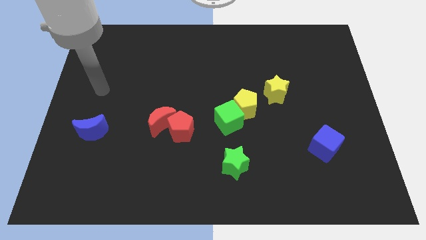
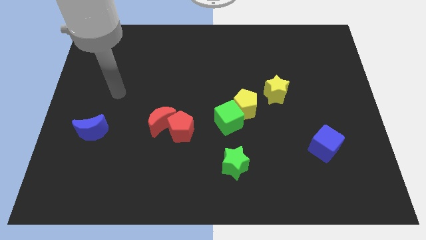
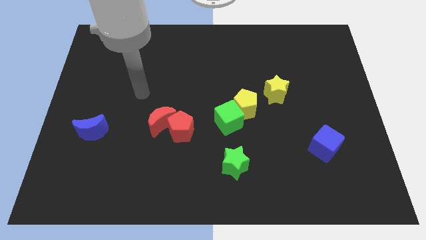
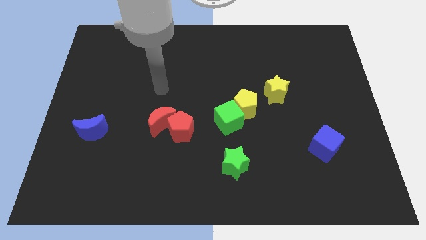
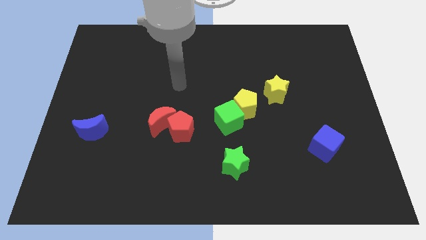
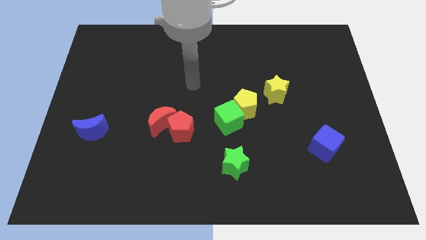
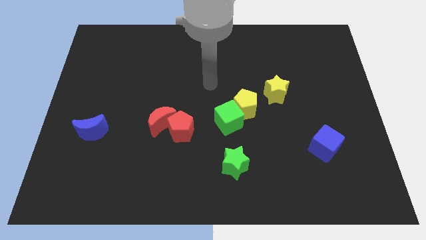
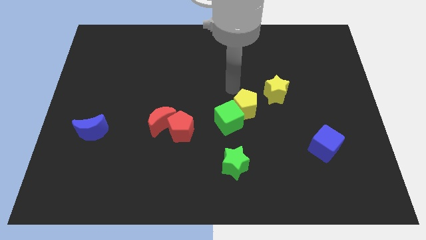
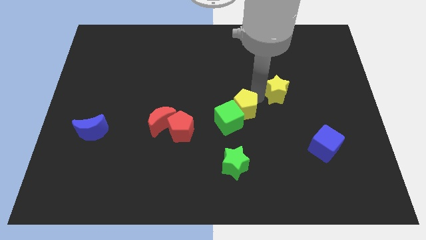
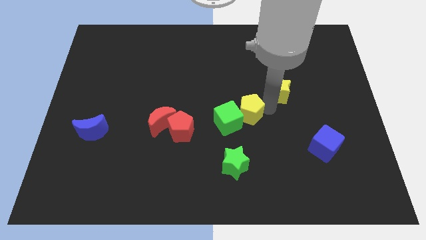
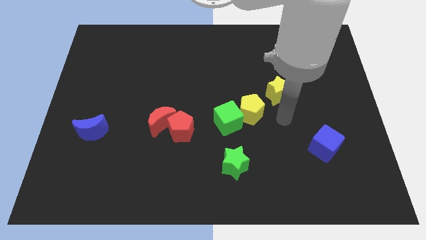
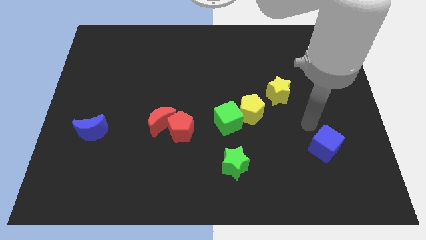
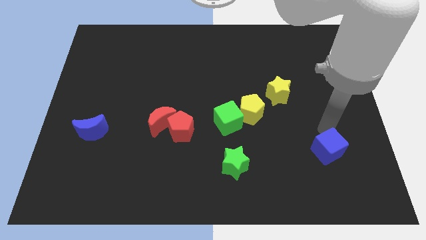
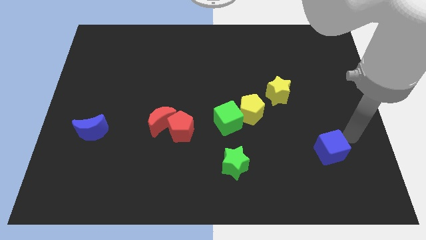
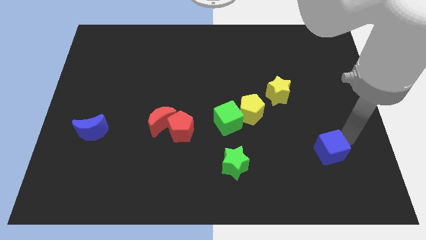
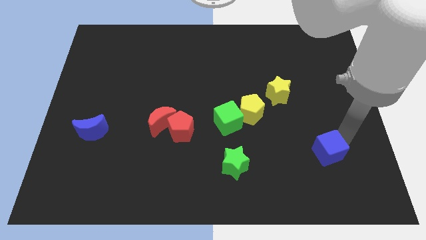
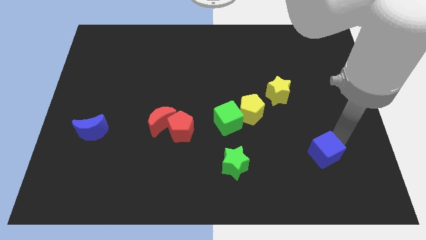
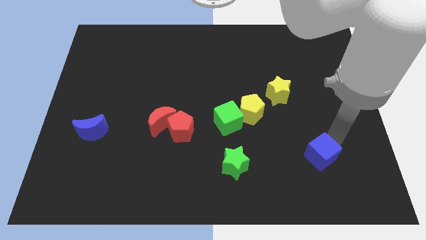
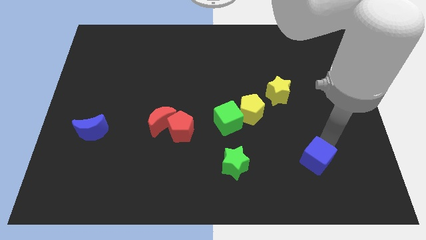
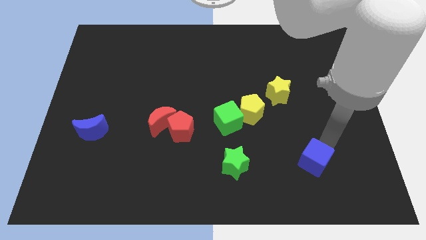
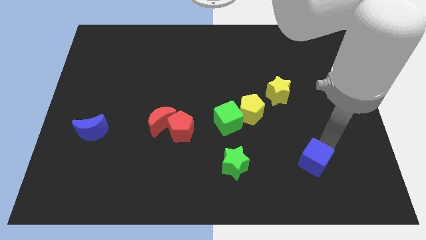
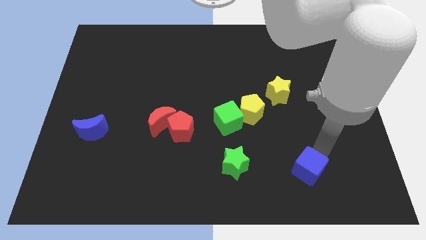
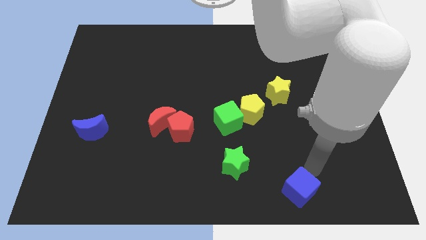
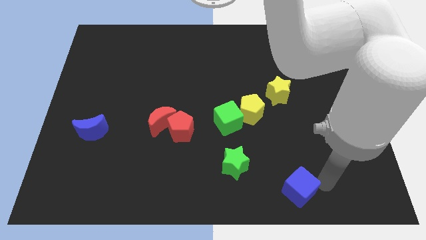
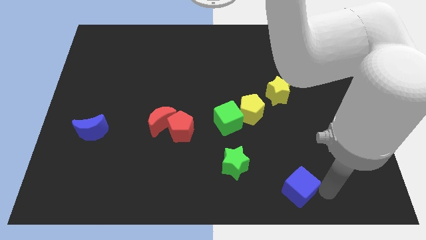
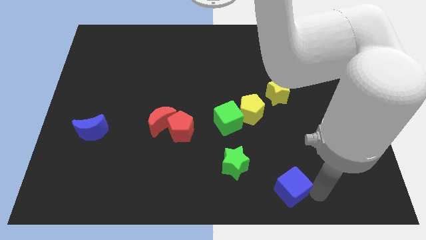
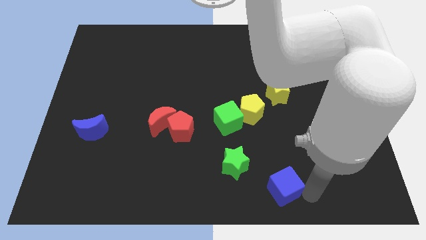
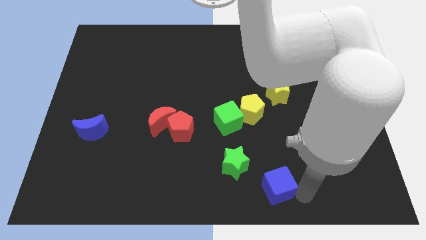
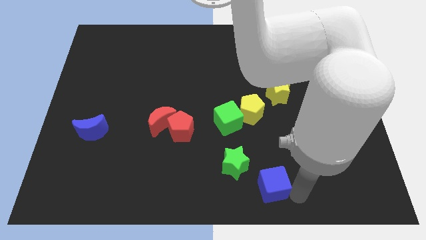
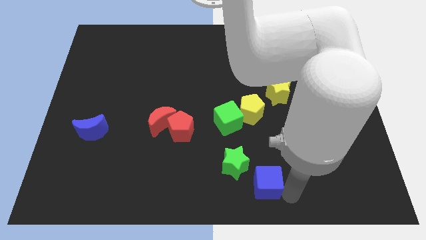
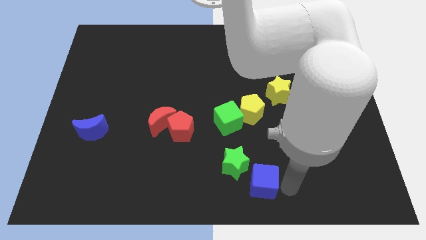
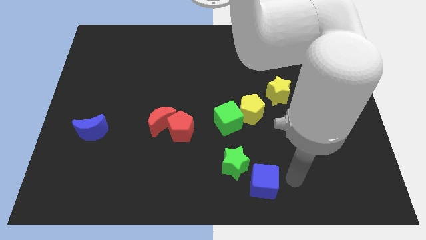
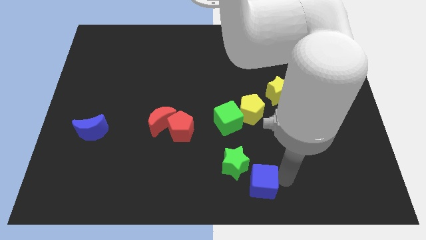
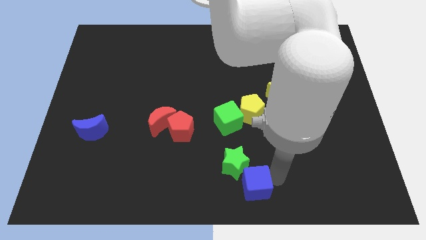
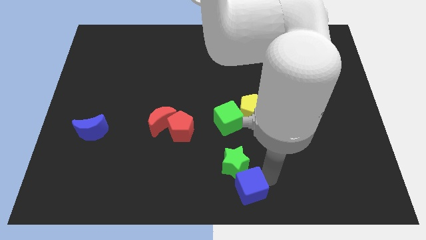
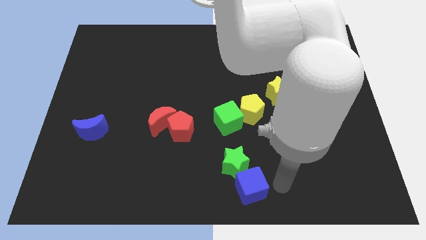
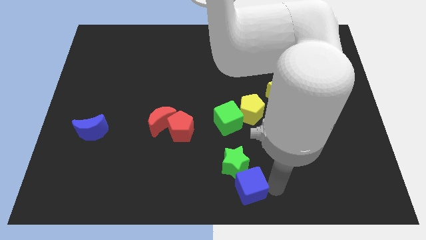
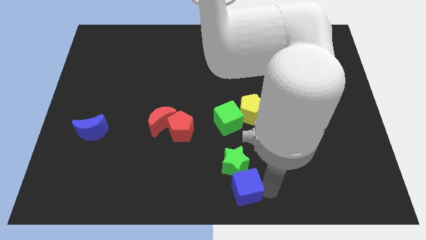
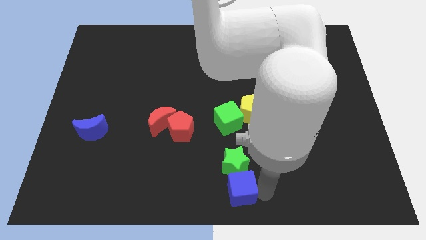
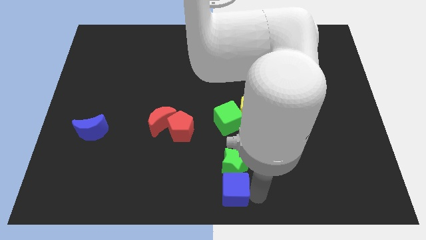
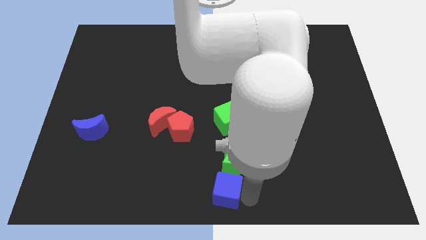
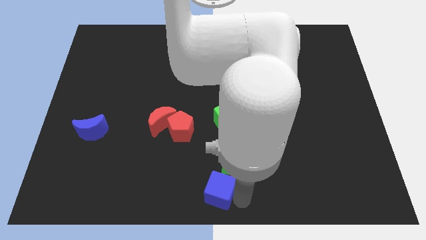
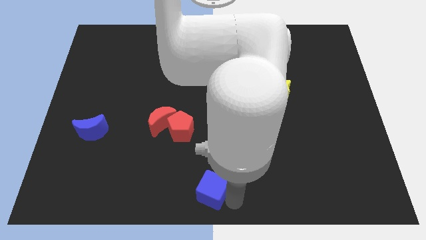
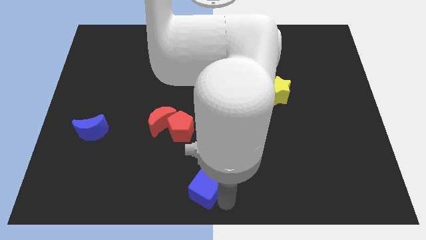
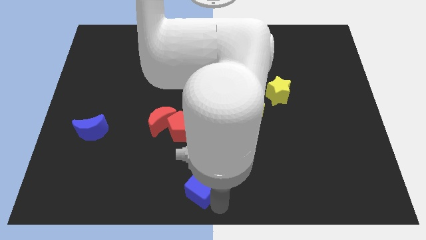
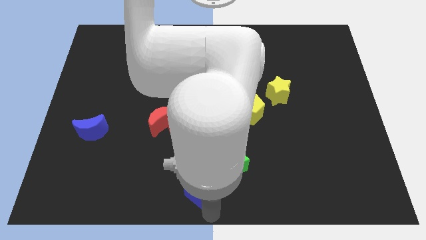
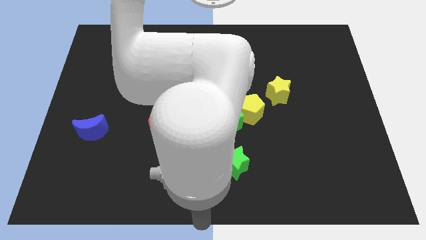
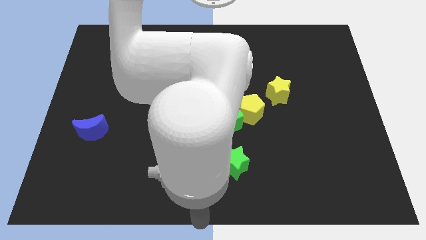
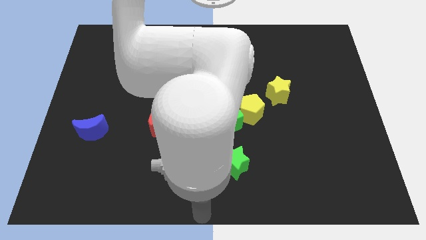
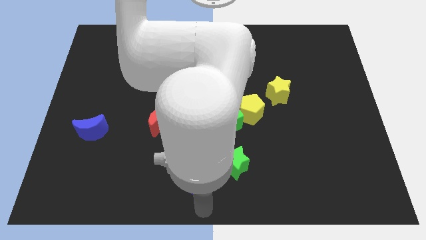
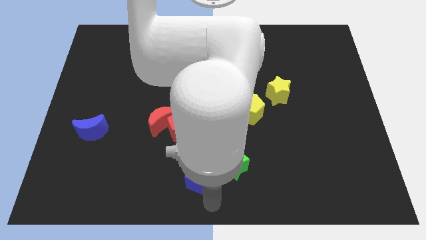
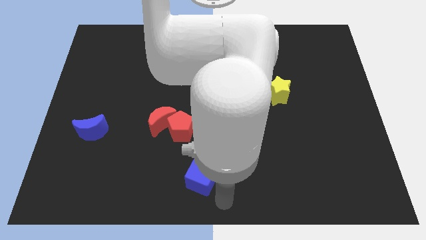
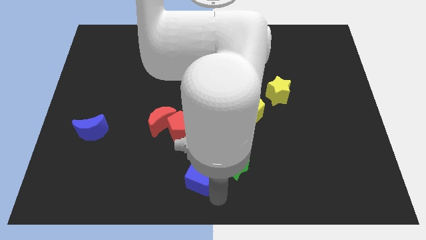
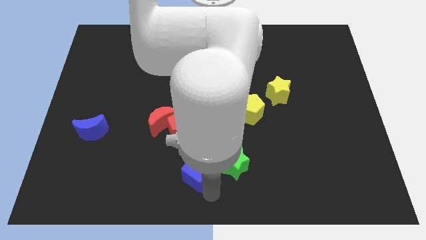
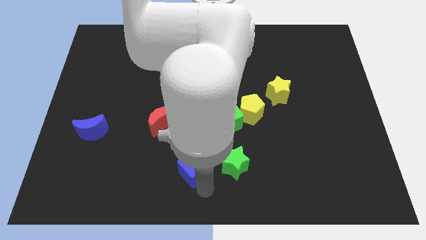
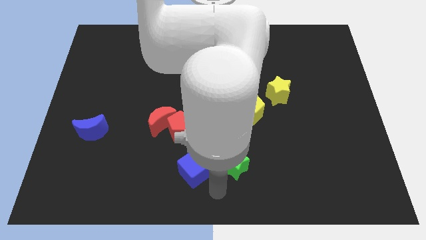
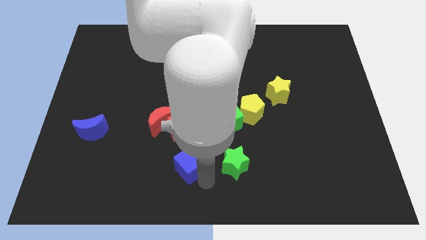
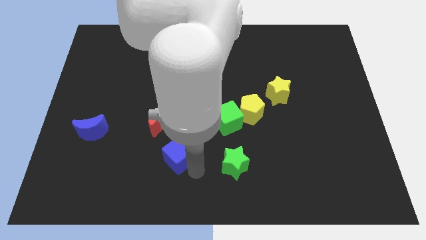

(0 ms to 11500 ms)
slide the blue cube to the bottom left of the red pentagon

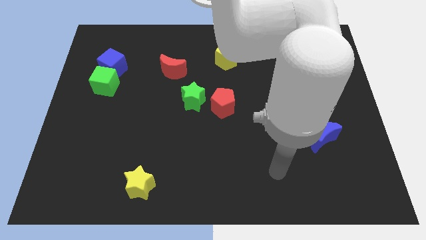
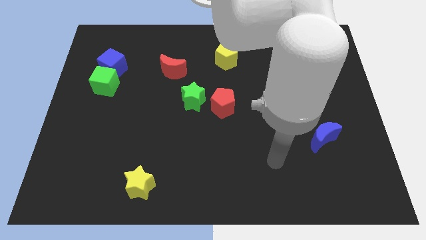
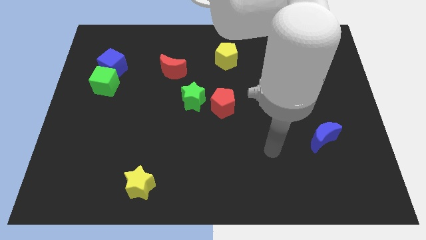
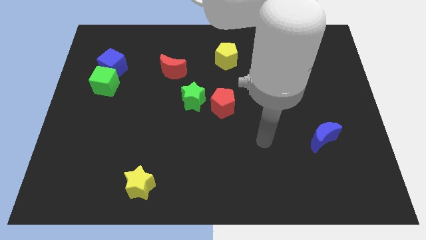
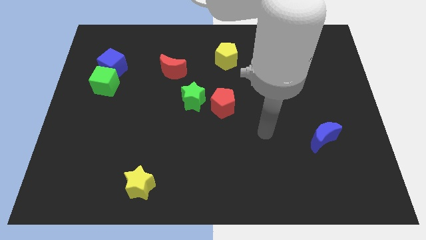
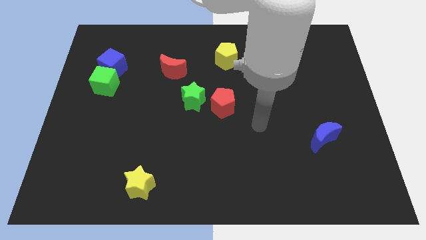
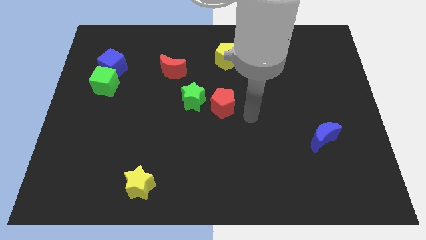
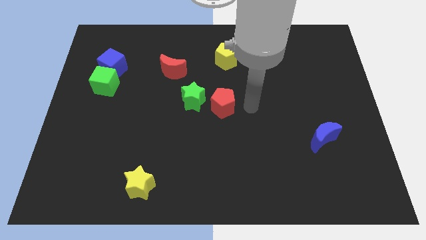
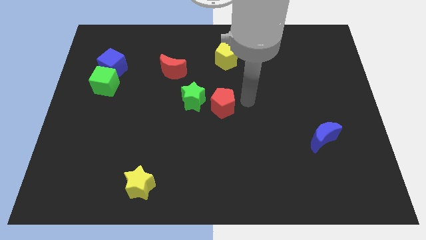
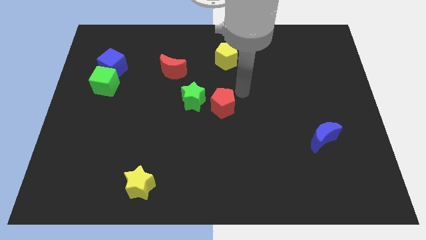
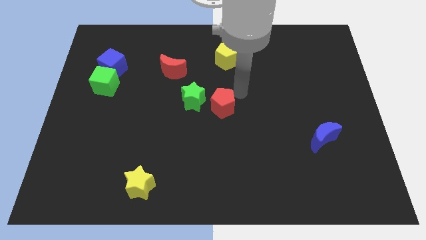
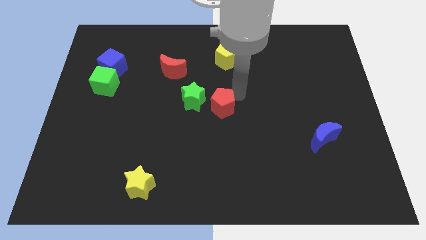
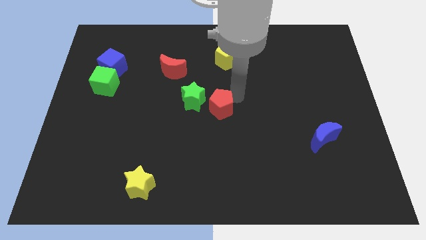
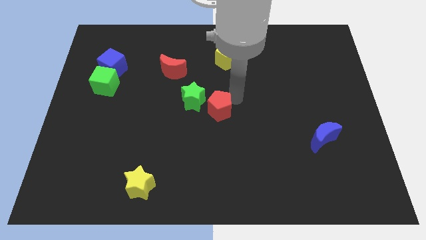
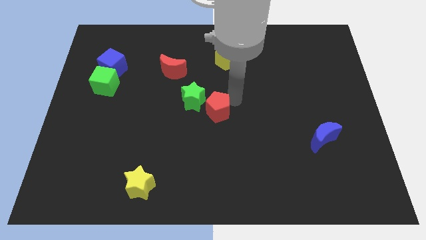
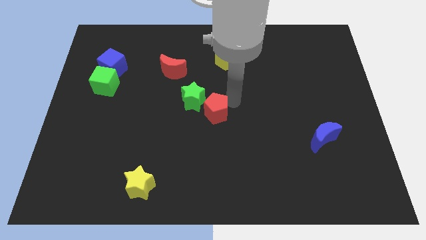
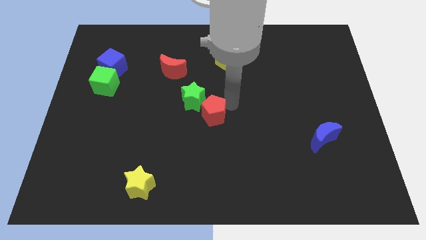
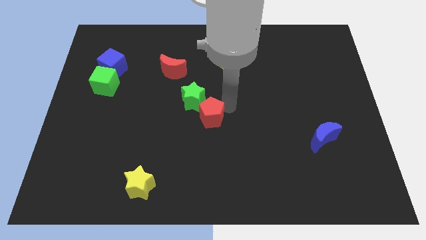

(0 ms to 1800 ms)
put the red pentagon to the bottom of the green star
